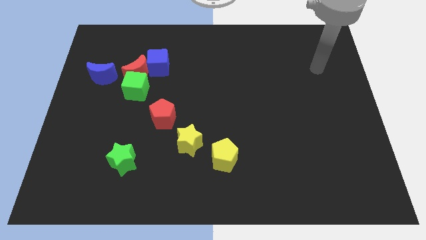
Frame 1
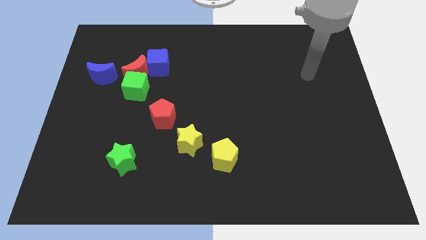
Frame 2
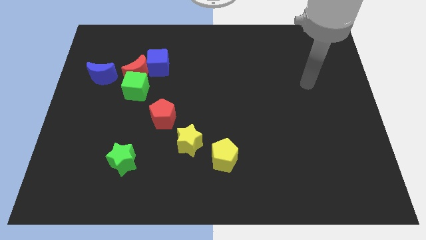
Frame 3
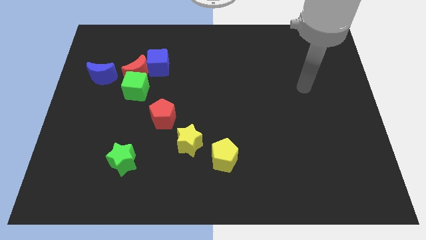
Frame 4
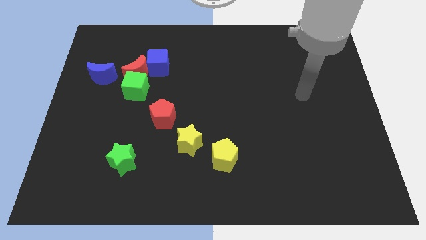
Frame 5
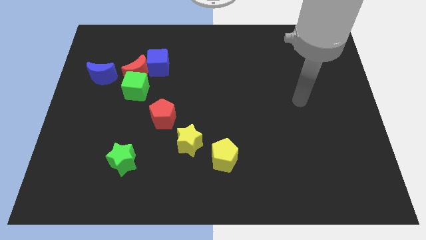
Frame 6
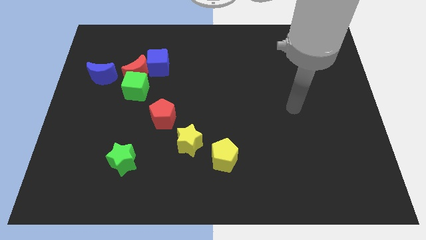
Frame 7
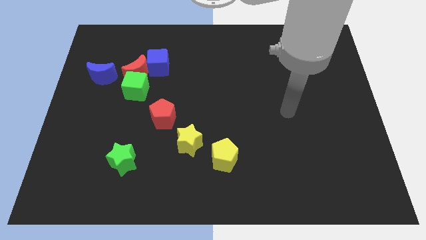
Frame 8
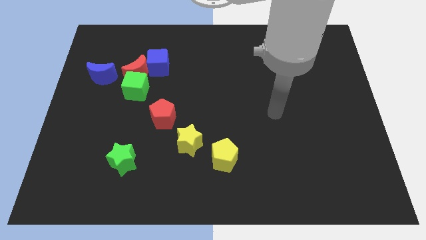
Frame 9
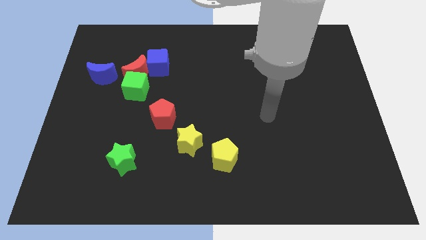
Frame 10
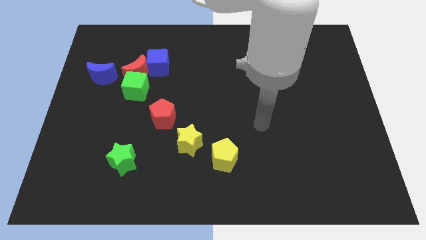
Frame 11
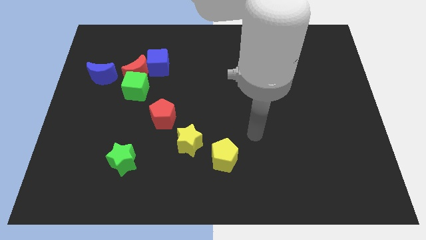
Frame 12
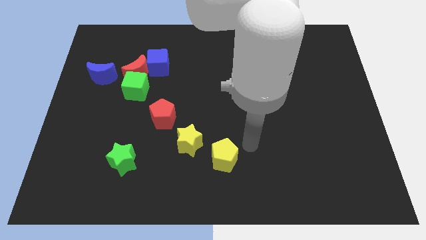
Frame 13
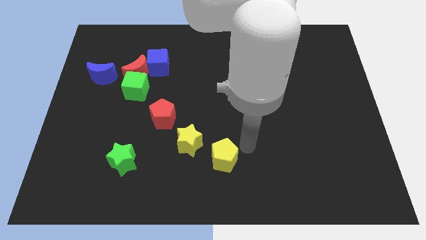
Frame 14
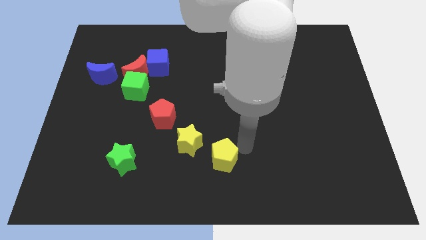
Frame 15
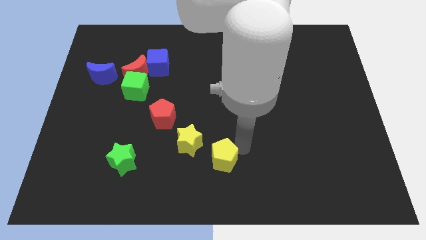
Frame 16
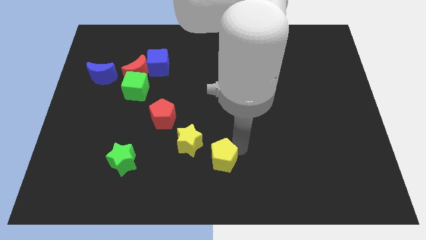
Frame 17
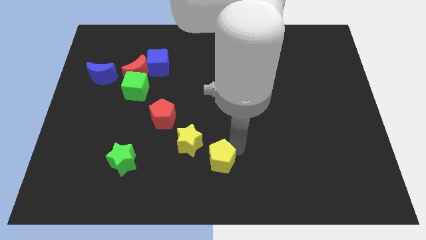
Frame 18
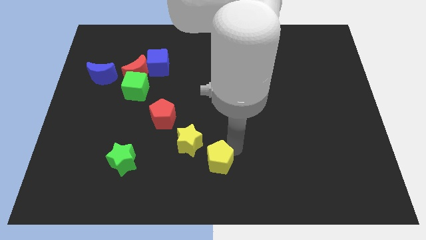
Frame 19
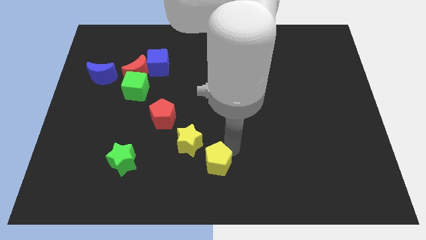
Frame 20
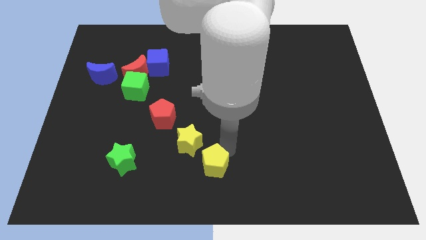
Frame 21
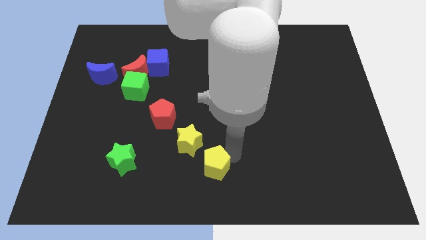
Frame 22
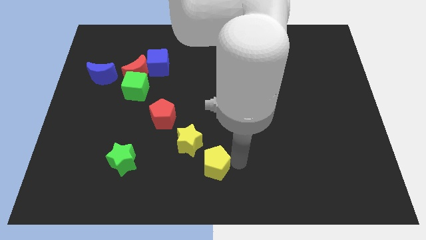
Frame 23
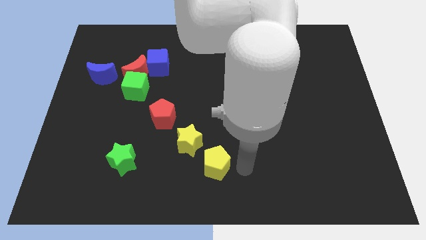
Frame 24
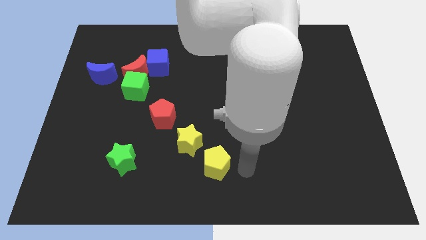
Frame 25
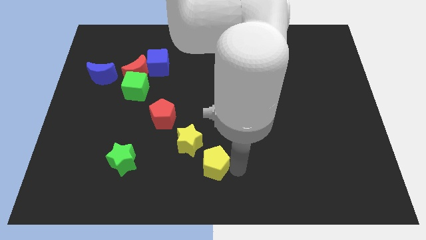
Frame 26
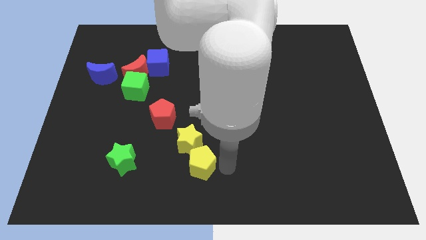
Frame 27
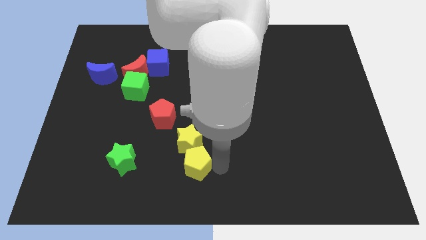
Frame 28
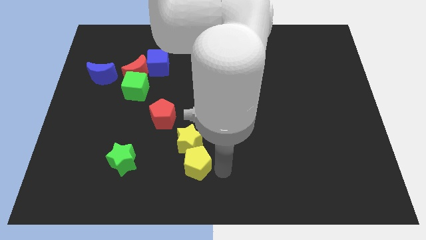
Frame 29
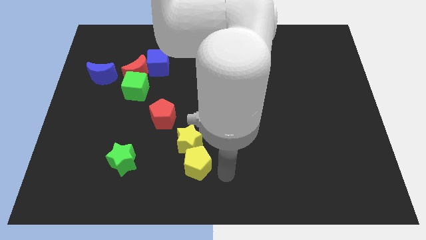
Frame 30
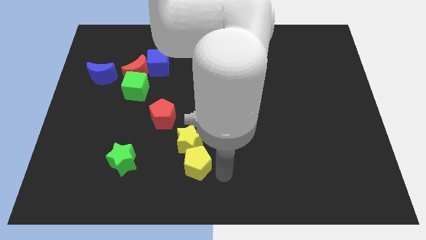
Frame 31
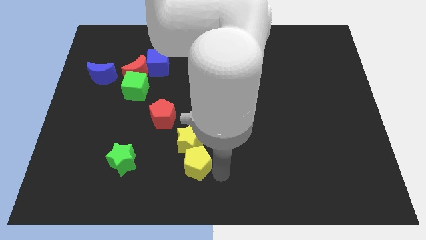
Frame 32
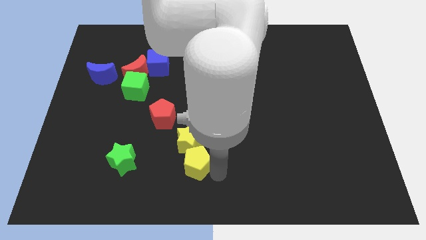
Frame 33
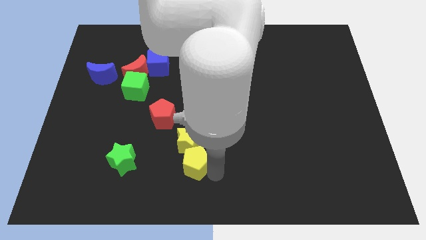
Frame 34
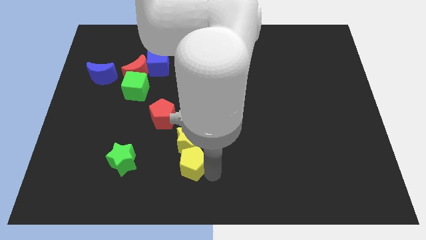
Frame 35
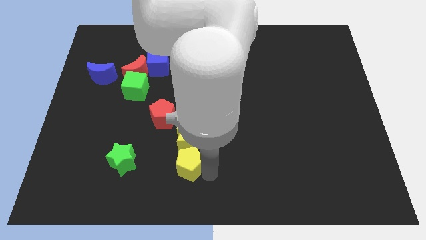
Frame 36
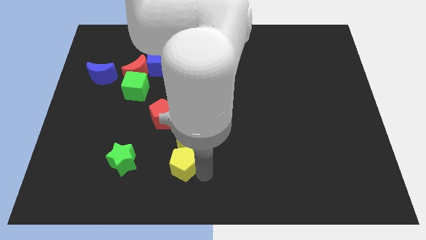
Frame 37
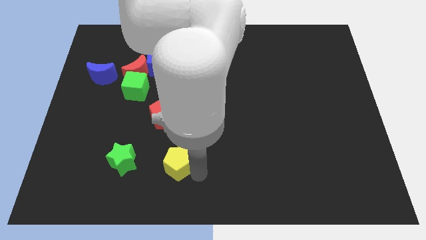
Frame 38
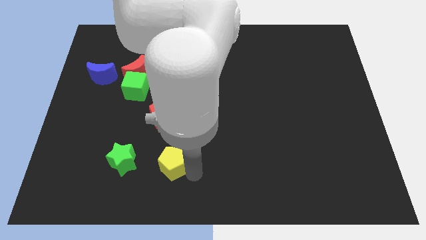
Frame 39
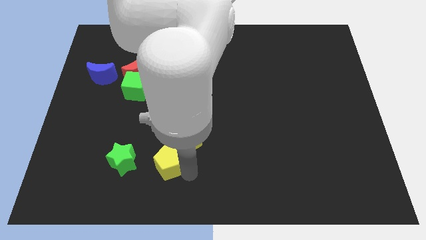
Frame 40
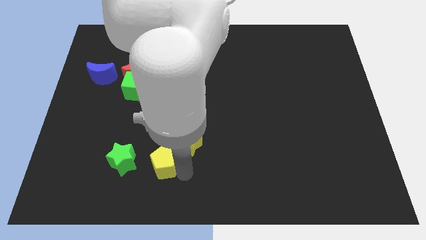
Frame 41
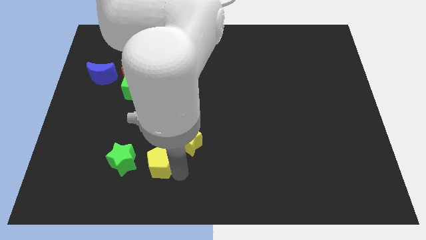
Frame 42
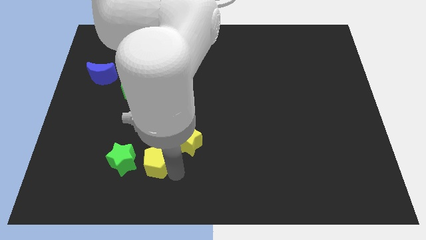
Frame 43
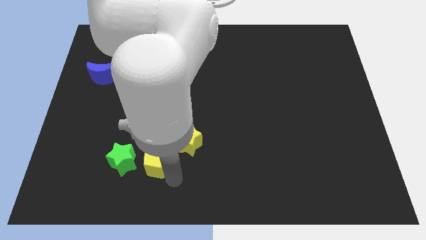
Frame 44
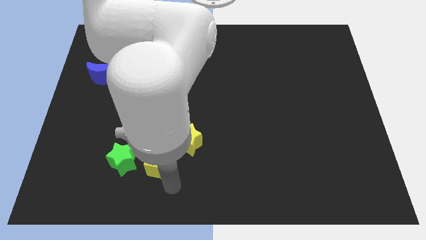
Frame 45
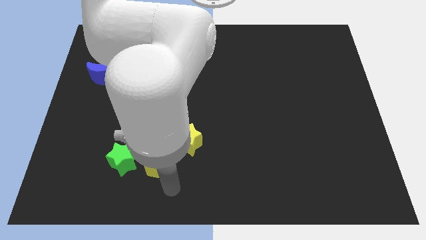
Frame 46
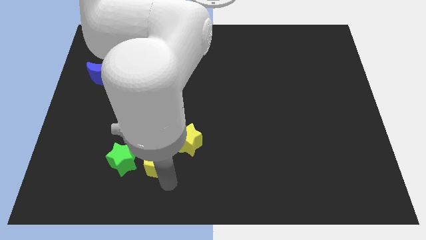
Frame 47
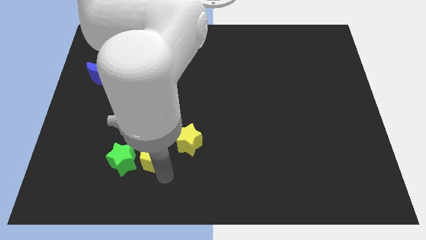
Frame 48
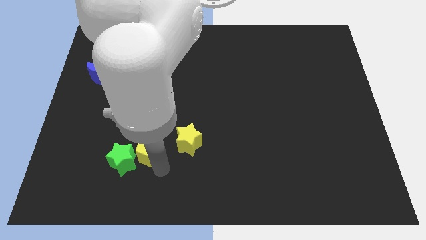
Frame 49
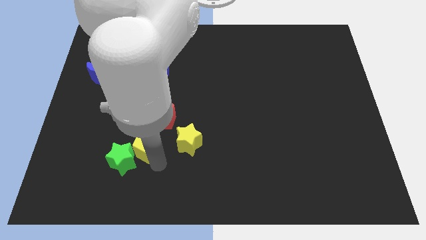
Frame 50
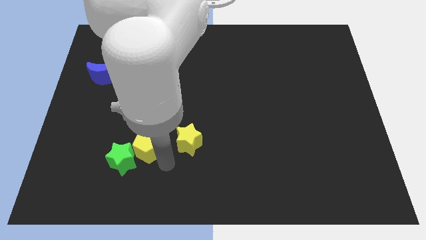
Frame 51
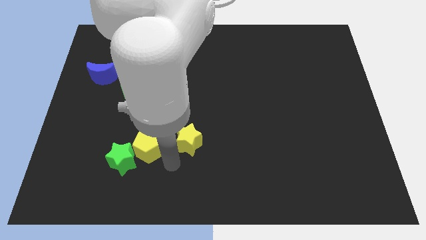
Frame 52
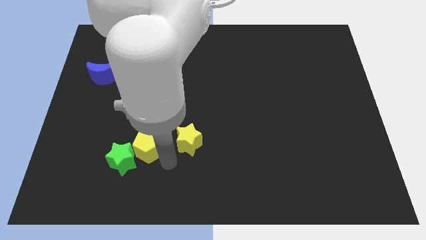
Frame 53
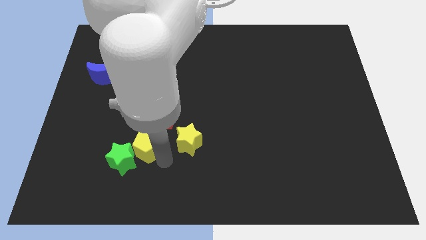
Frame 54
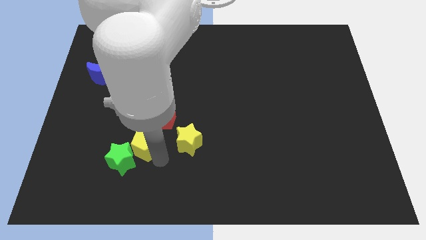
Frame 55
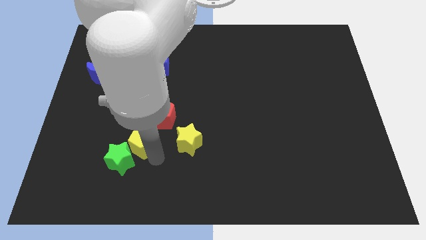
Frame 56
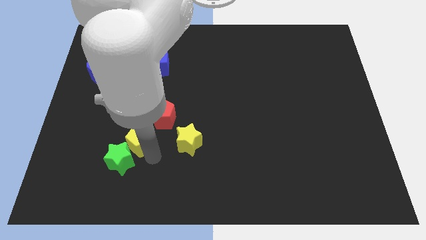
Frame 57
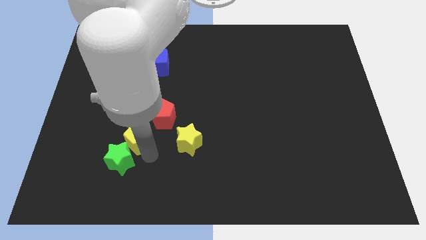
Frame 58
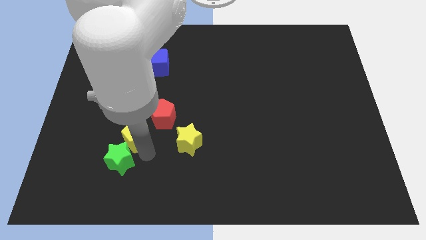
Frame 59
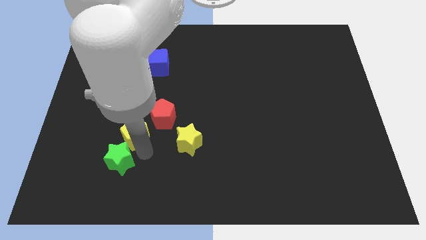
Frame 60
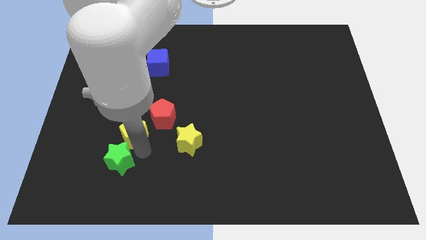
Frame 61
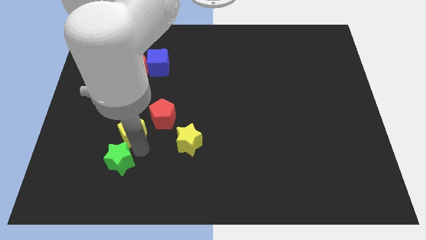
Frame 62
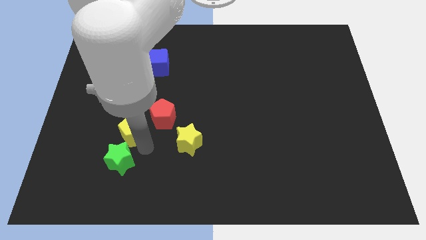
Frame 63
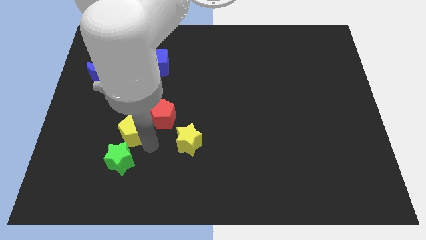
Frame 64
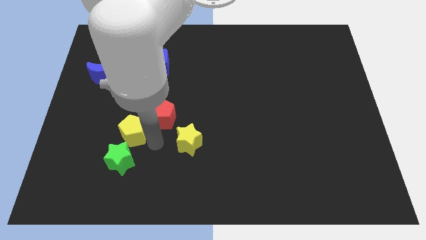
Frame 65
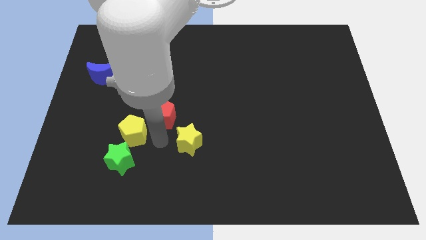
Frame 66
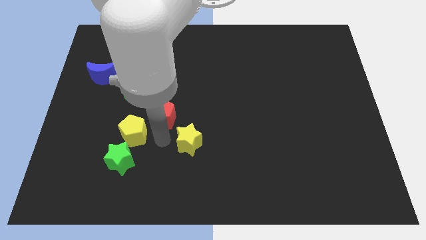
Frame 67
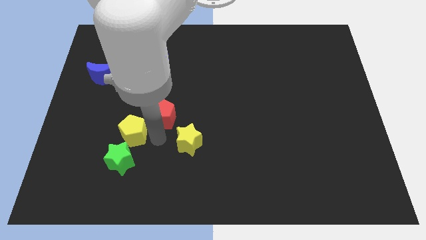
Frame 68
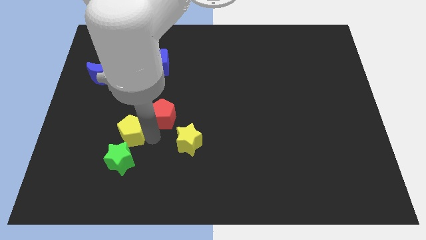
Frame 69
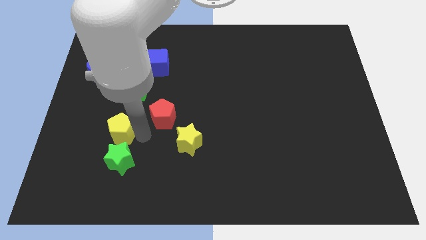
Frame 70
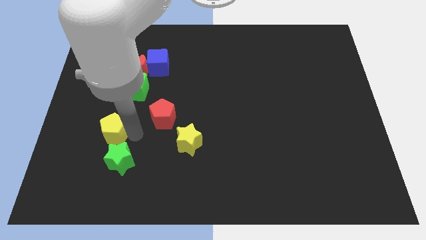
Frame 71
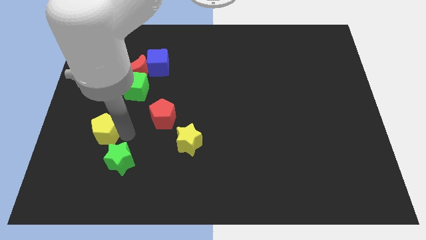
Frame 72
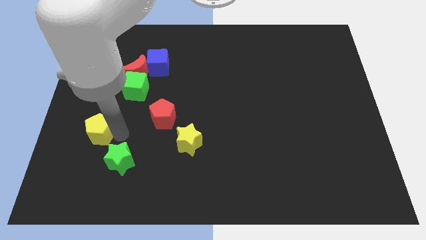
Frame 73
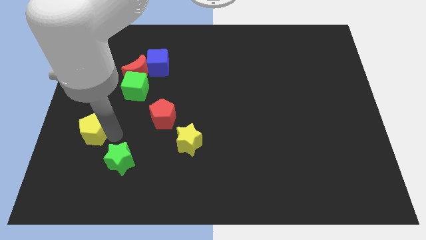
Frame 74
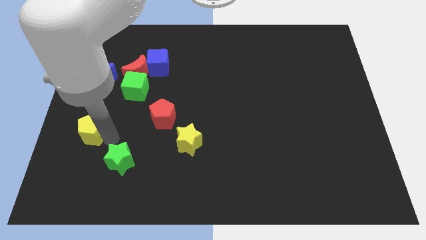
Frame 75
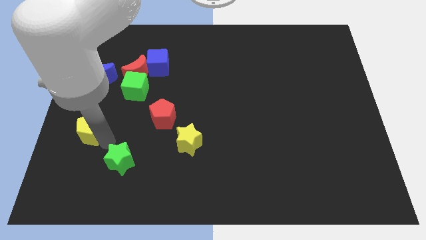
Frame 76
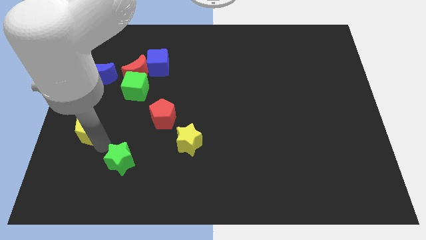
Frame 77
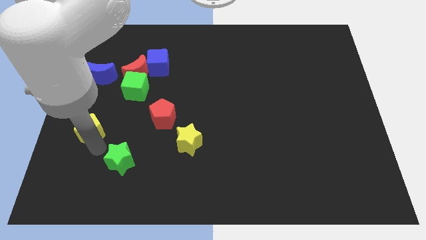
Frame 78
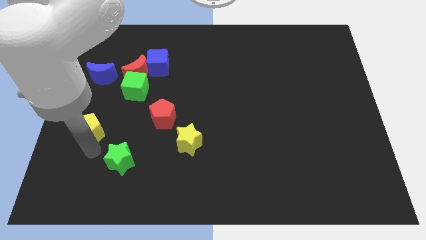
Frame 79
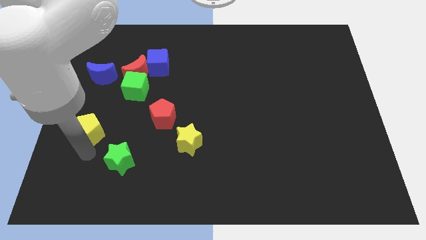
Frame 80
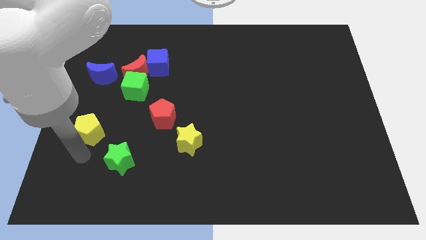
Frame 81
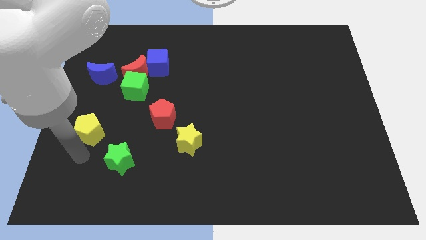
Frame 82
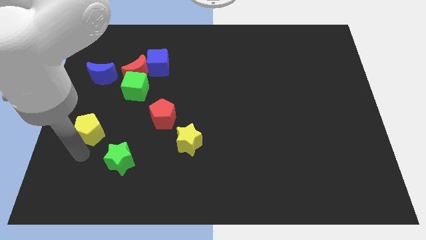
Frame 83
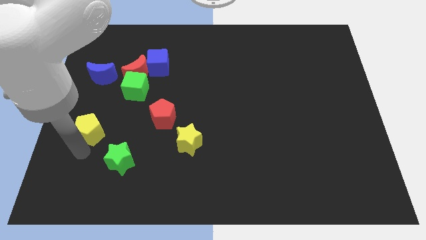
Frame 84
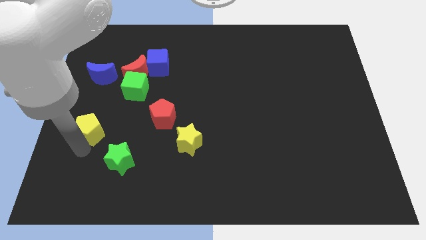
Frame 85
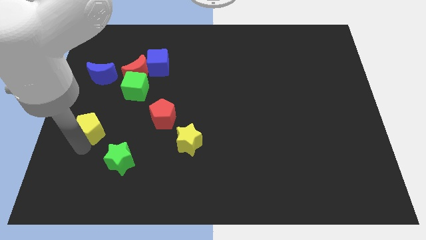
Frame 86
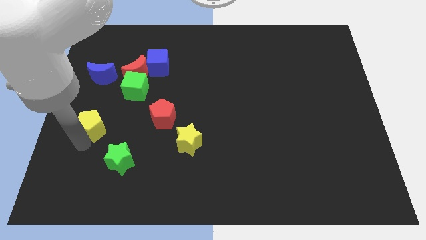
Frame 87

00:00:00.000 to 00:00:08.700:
move the yellow pentagon to the left side
